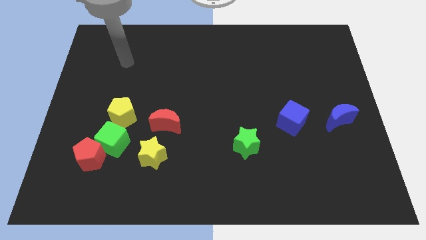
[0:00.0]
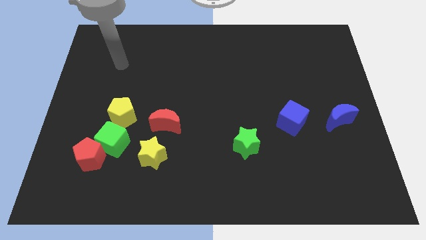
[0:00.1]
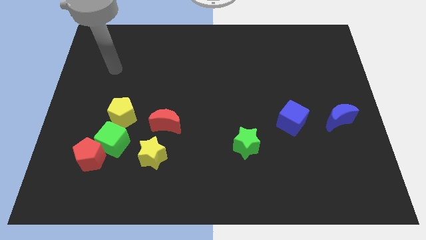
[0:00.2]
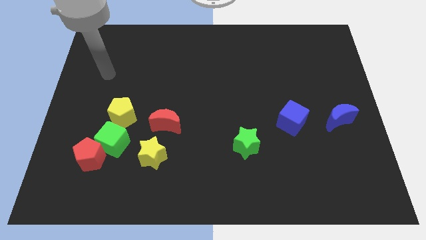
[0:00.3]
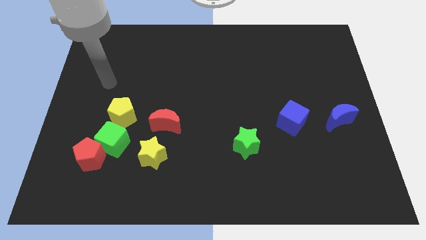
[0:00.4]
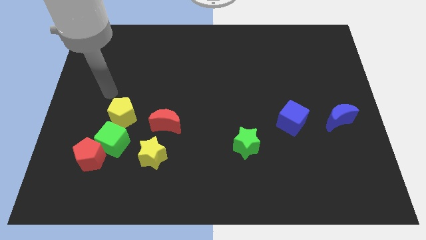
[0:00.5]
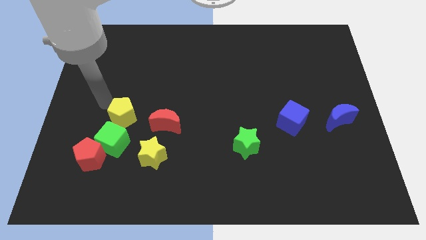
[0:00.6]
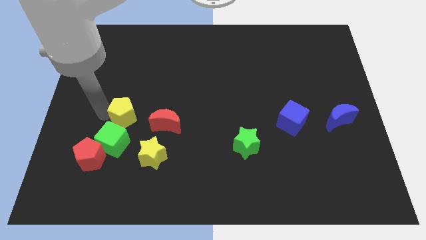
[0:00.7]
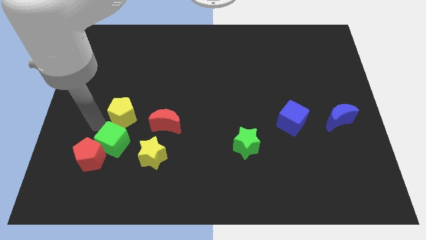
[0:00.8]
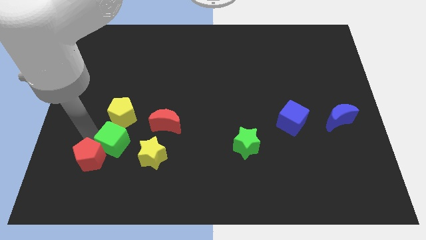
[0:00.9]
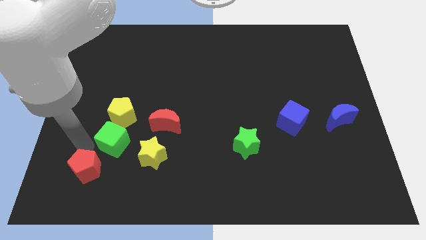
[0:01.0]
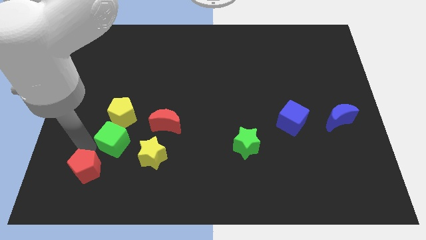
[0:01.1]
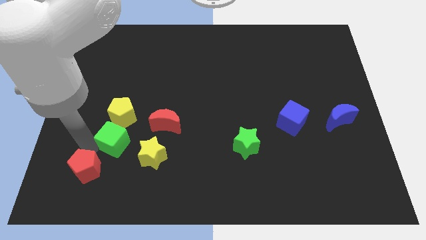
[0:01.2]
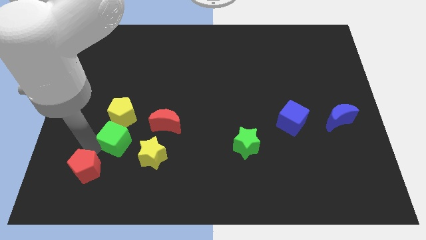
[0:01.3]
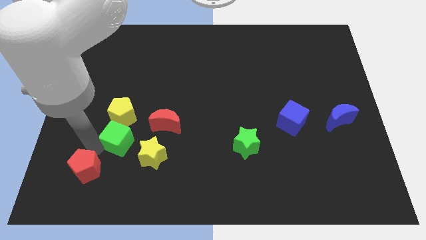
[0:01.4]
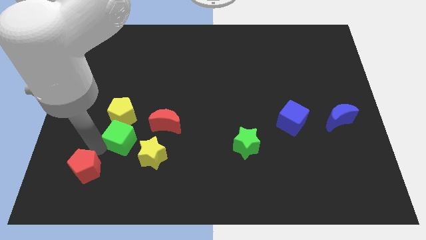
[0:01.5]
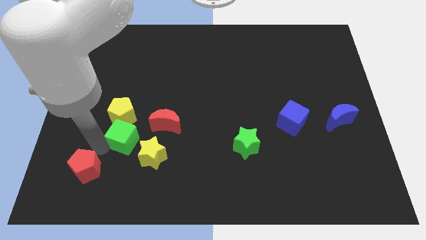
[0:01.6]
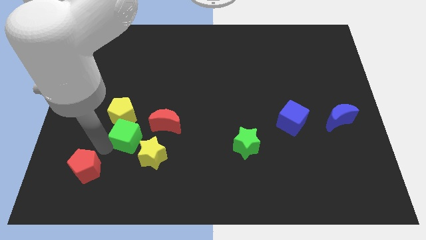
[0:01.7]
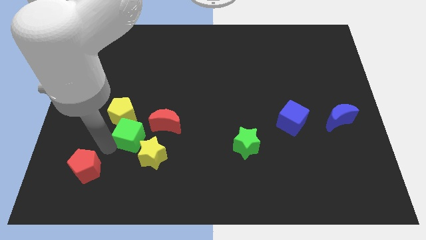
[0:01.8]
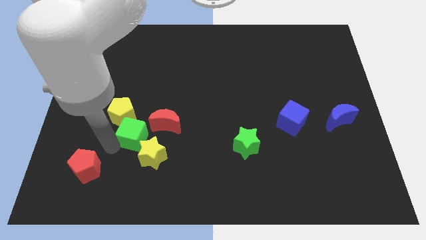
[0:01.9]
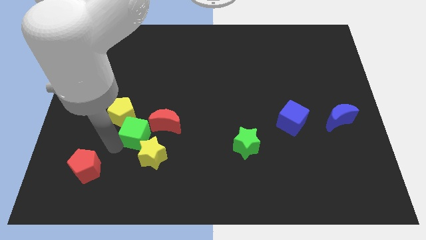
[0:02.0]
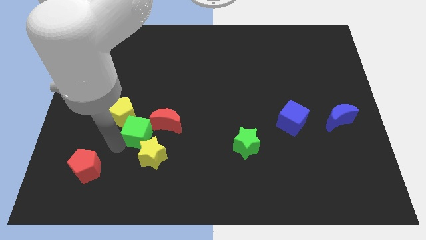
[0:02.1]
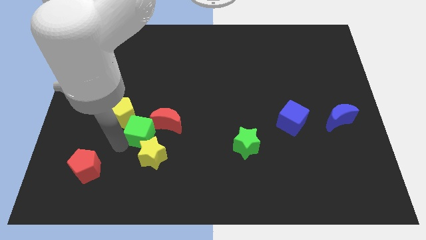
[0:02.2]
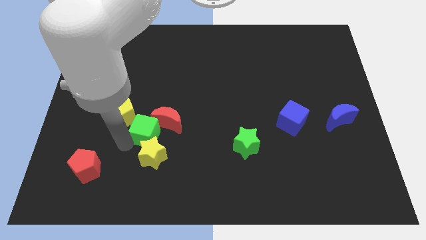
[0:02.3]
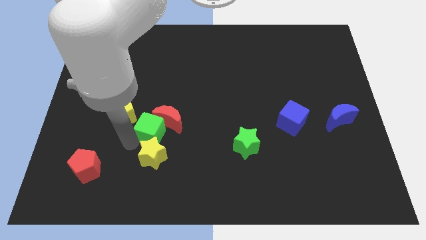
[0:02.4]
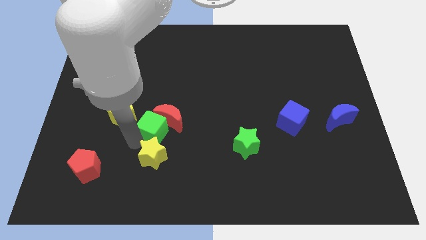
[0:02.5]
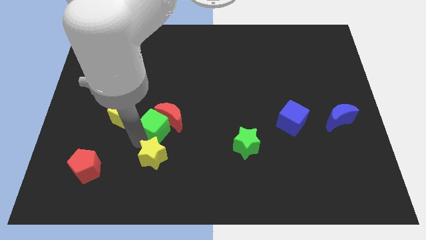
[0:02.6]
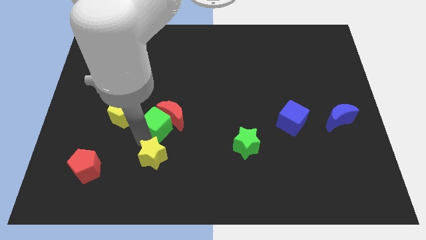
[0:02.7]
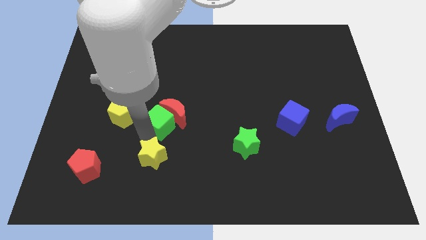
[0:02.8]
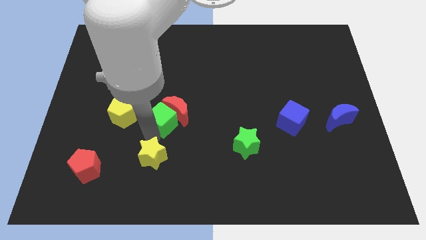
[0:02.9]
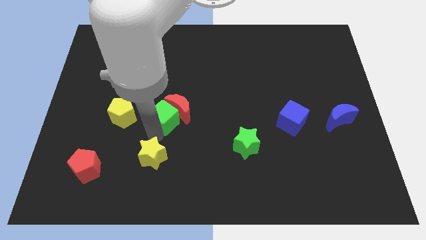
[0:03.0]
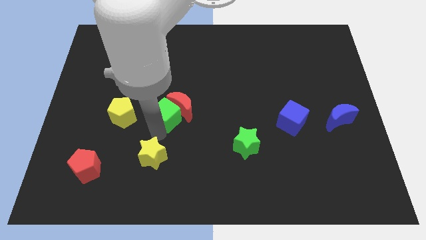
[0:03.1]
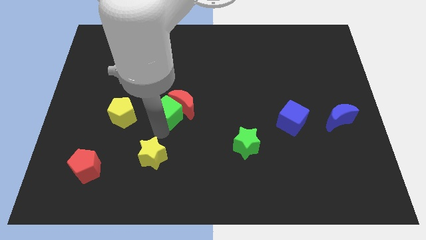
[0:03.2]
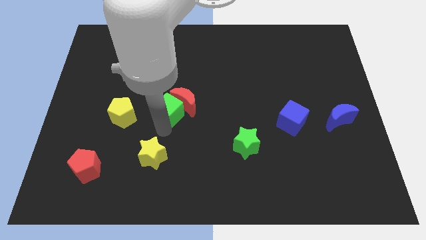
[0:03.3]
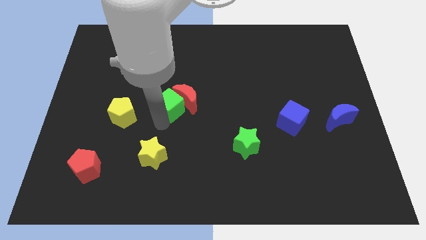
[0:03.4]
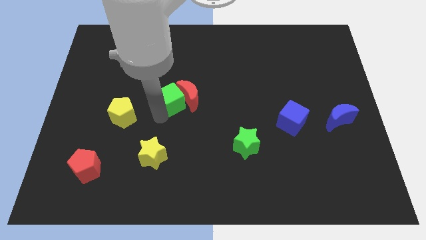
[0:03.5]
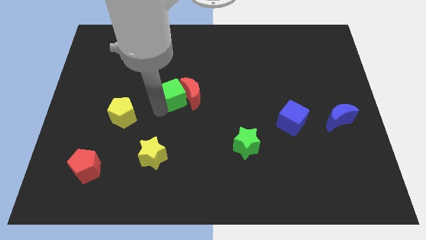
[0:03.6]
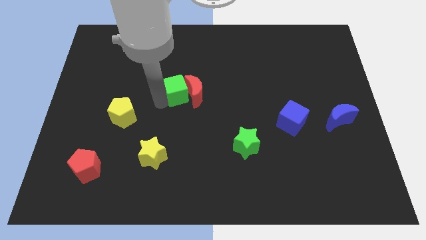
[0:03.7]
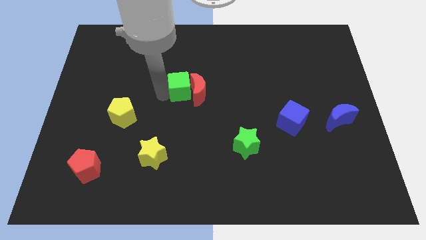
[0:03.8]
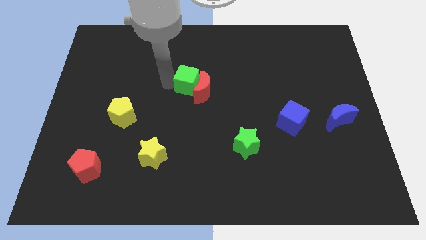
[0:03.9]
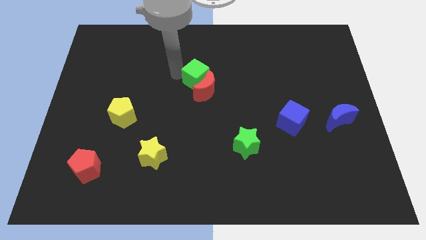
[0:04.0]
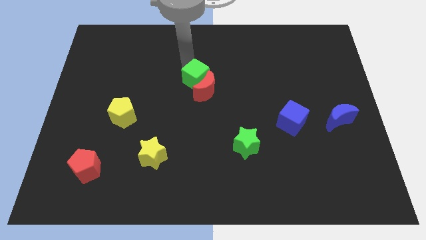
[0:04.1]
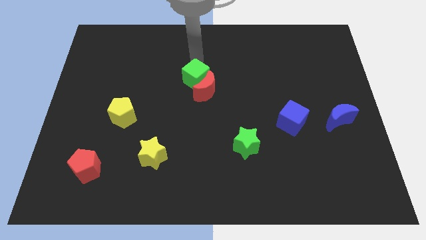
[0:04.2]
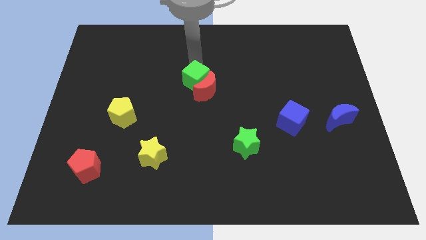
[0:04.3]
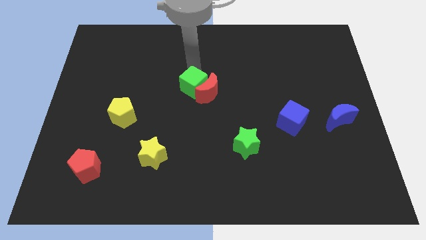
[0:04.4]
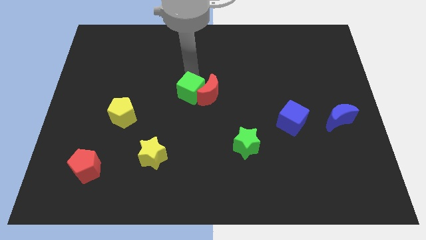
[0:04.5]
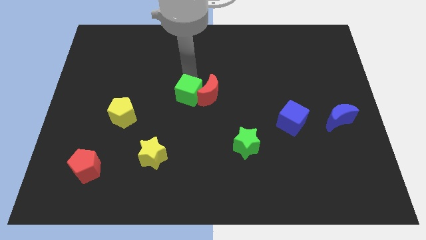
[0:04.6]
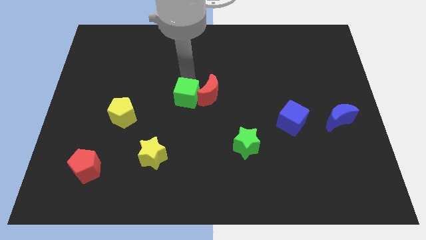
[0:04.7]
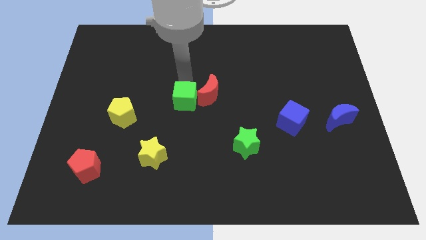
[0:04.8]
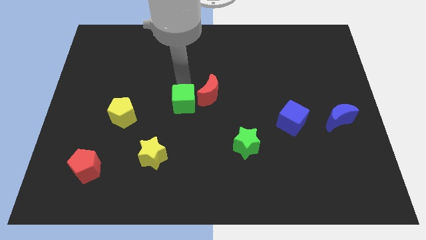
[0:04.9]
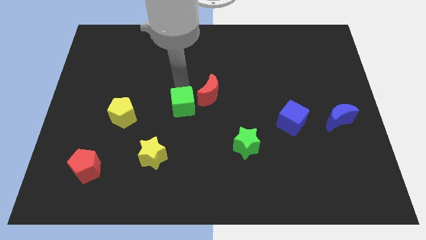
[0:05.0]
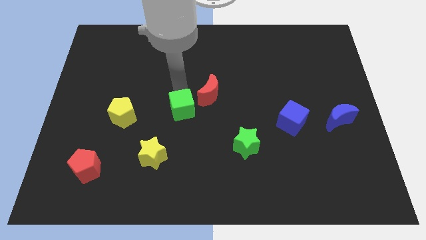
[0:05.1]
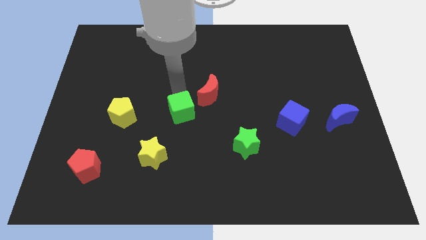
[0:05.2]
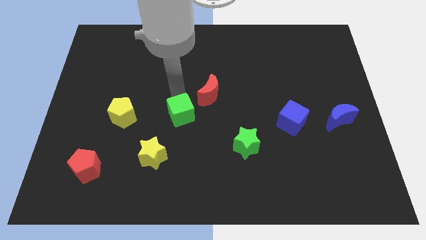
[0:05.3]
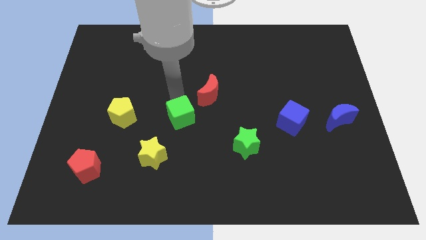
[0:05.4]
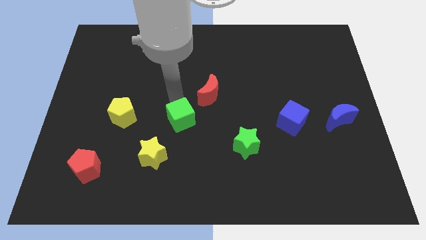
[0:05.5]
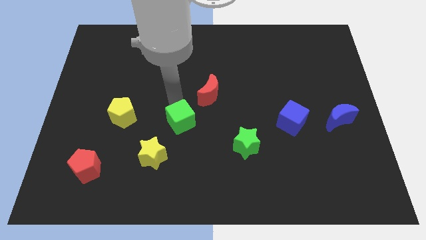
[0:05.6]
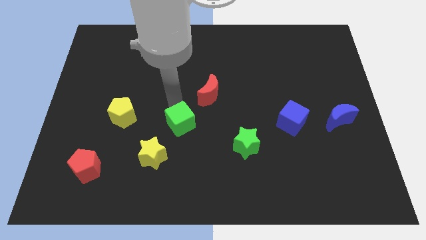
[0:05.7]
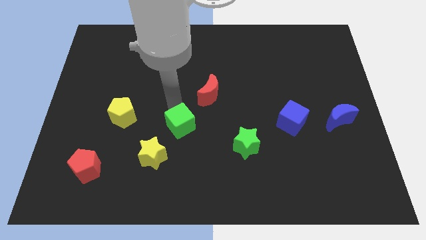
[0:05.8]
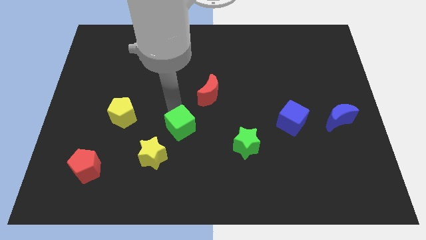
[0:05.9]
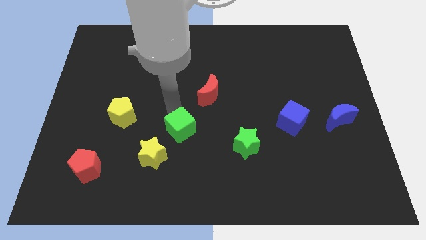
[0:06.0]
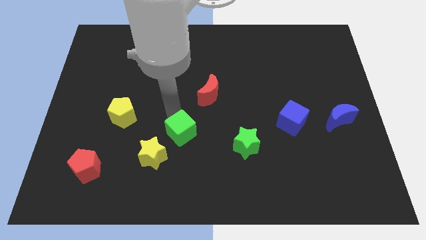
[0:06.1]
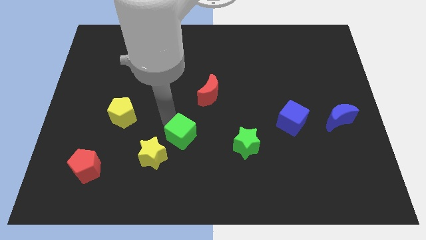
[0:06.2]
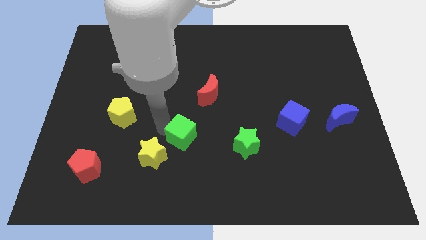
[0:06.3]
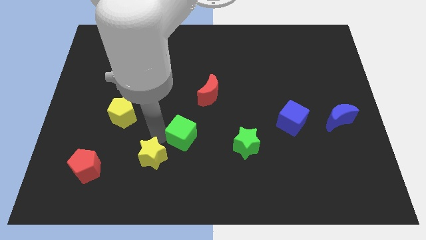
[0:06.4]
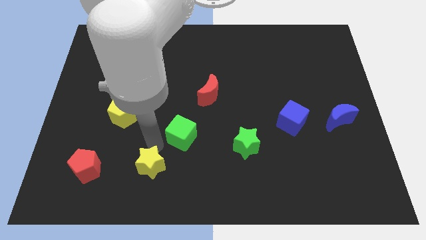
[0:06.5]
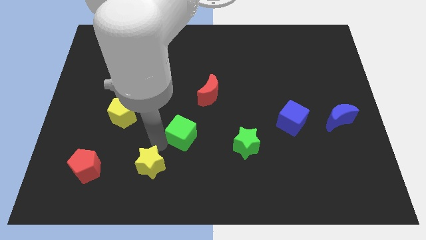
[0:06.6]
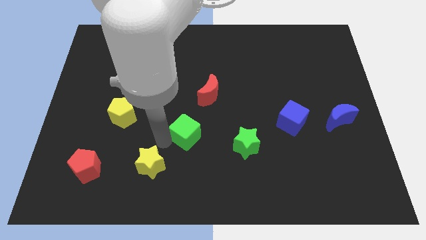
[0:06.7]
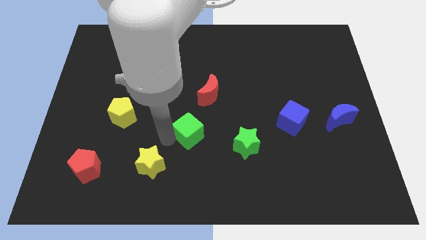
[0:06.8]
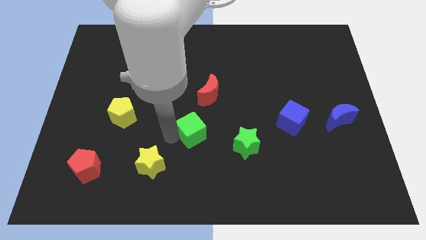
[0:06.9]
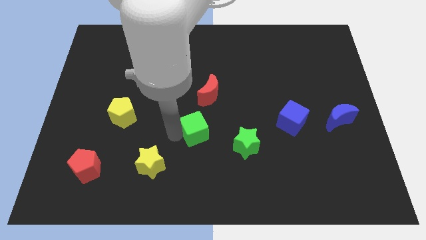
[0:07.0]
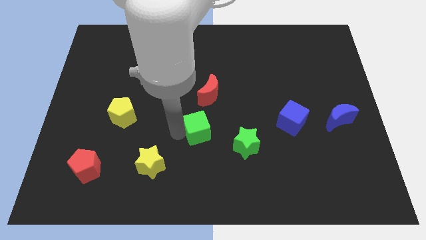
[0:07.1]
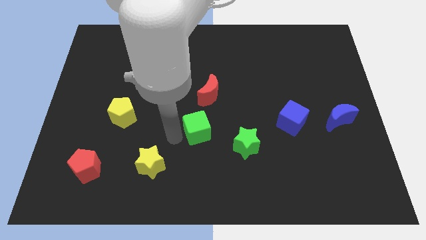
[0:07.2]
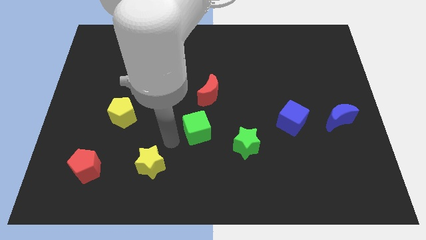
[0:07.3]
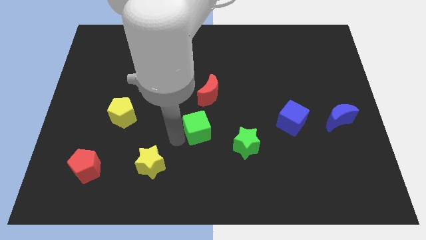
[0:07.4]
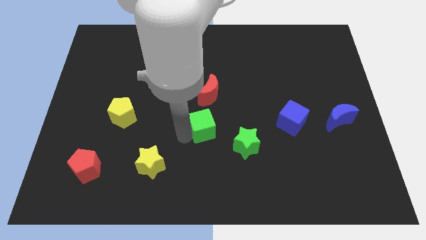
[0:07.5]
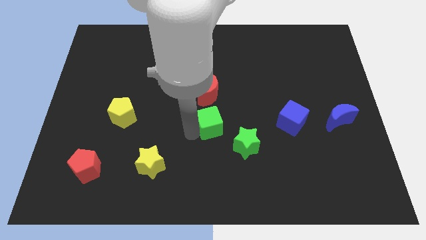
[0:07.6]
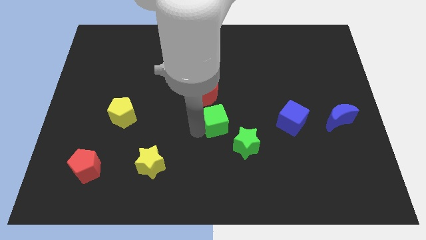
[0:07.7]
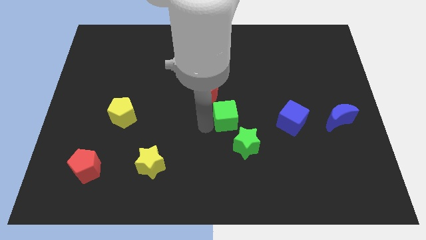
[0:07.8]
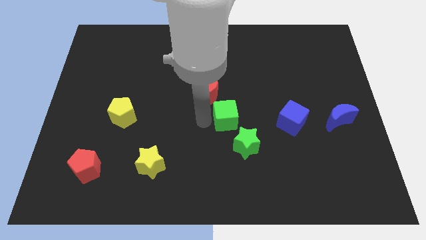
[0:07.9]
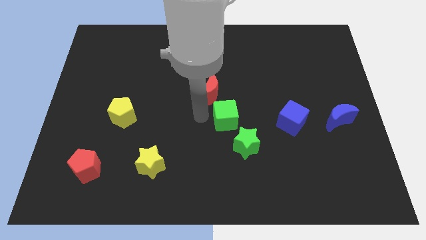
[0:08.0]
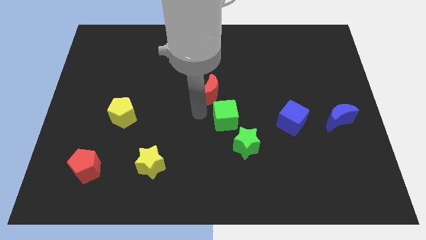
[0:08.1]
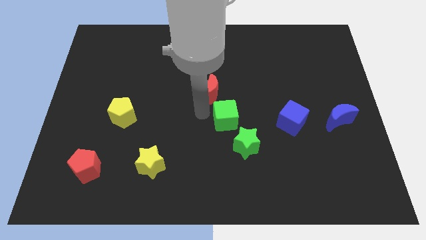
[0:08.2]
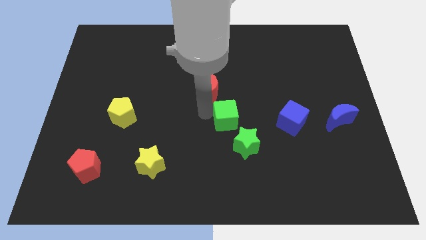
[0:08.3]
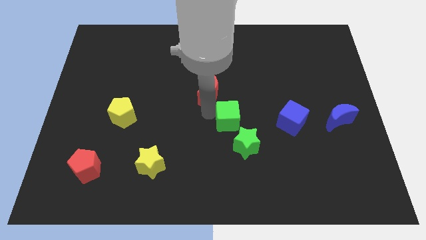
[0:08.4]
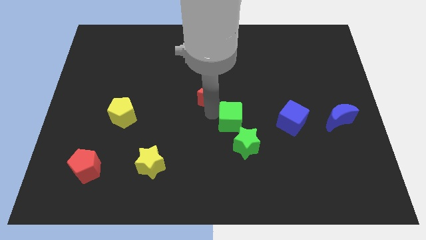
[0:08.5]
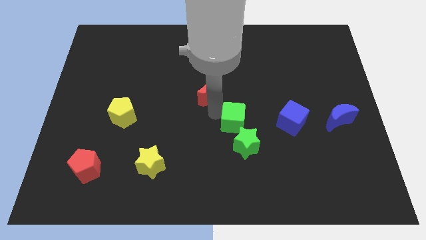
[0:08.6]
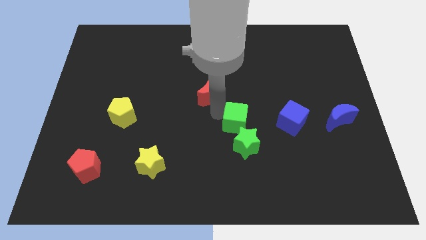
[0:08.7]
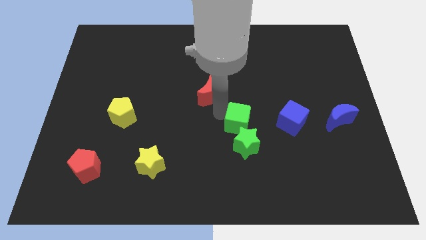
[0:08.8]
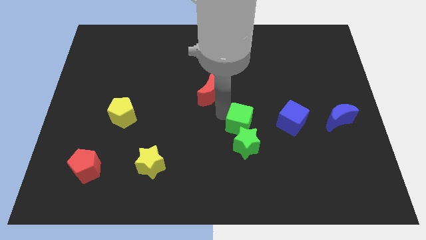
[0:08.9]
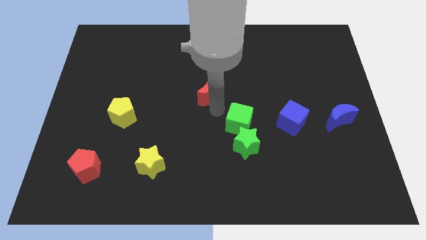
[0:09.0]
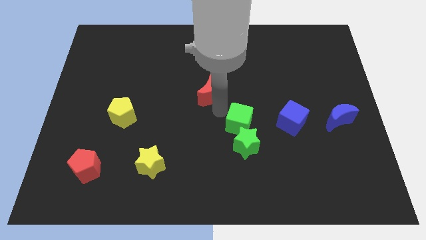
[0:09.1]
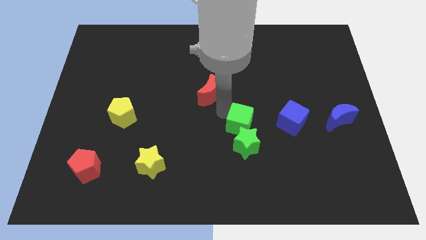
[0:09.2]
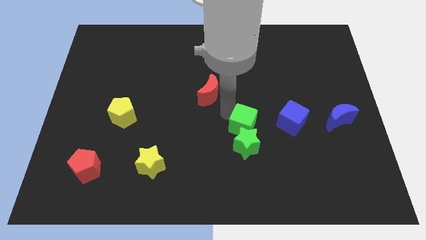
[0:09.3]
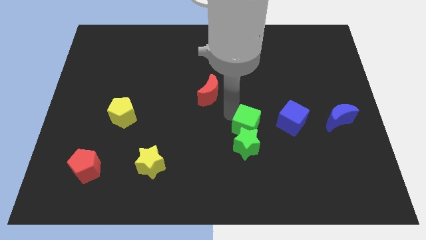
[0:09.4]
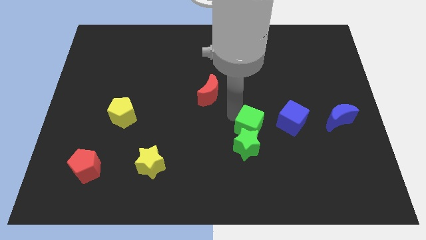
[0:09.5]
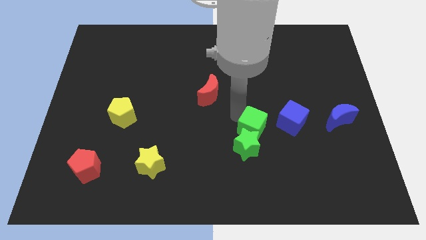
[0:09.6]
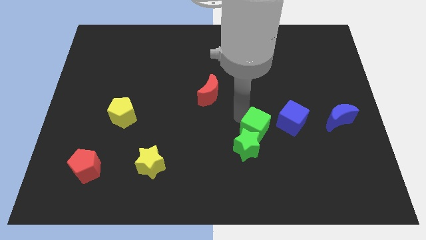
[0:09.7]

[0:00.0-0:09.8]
move the green cube to the bottom left side of the blue cube
